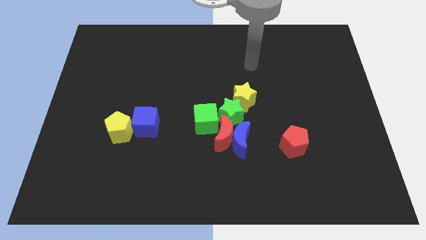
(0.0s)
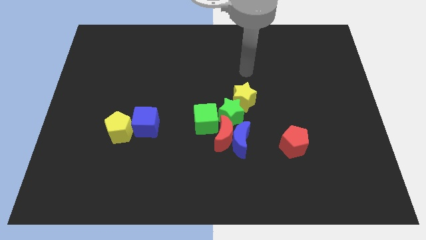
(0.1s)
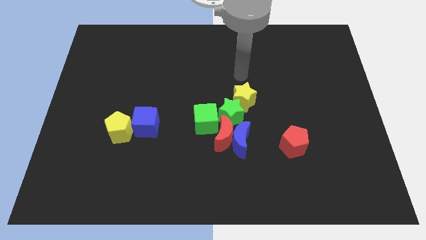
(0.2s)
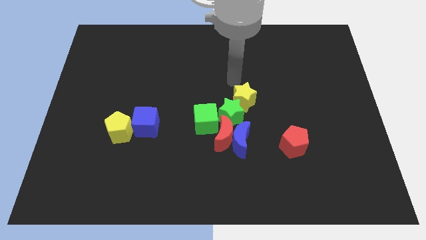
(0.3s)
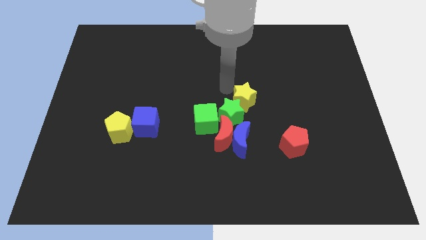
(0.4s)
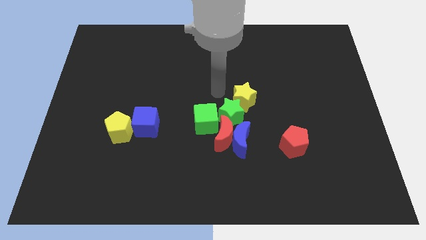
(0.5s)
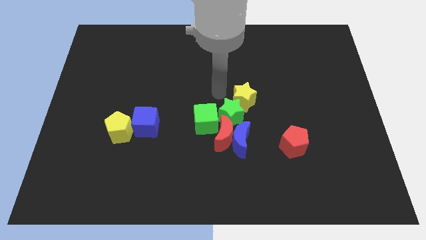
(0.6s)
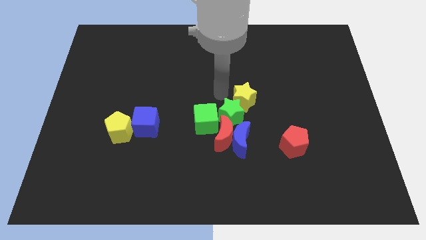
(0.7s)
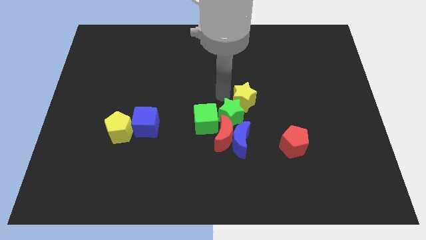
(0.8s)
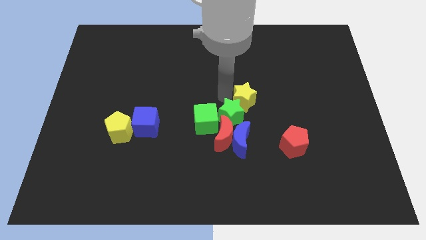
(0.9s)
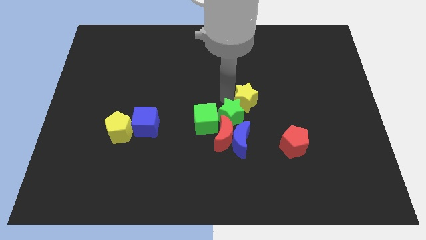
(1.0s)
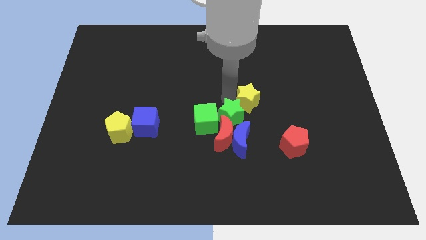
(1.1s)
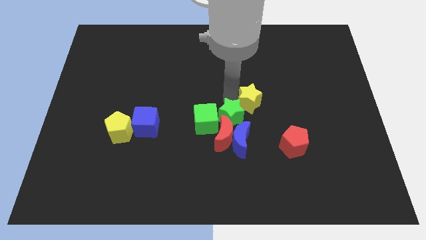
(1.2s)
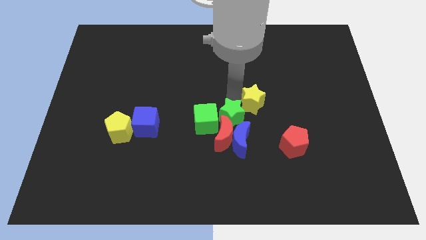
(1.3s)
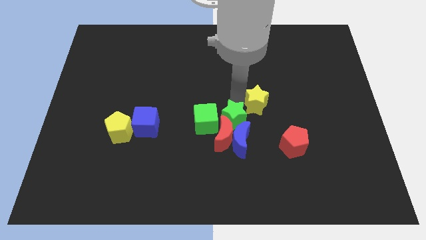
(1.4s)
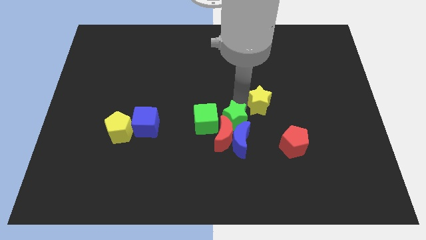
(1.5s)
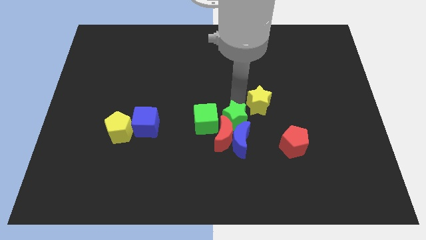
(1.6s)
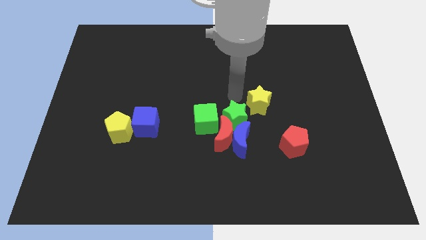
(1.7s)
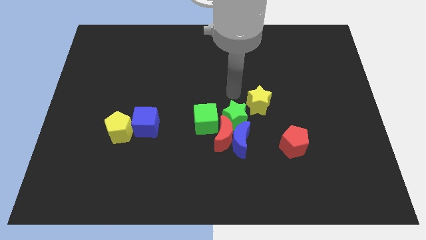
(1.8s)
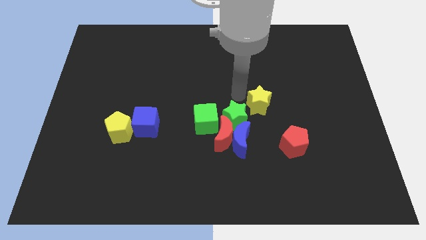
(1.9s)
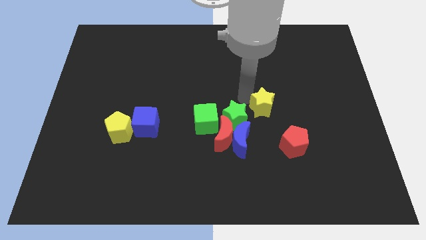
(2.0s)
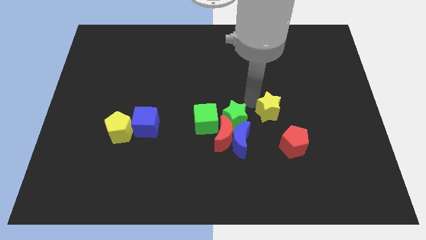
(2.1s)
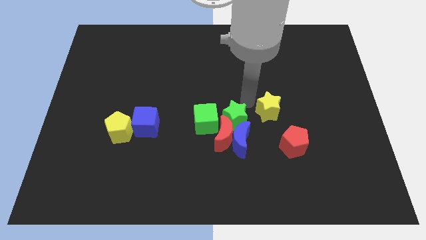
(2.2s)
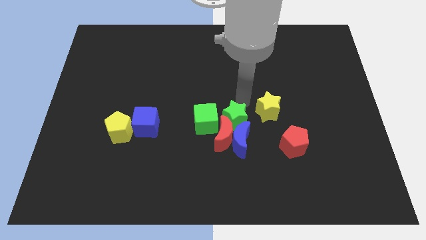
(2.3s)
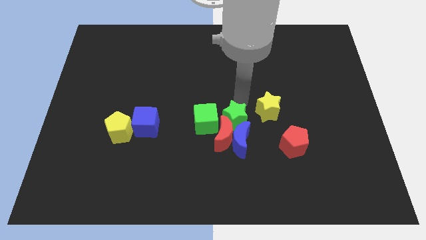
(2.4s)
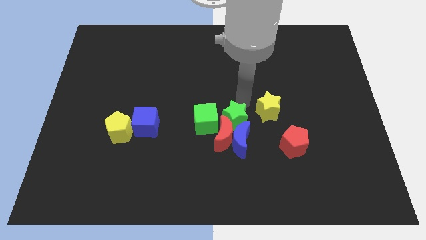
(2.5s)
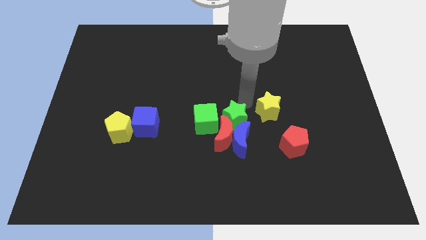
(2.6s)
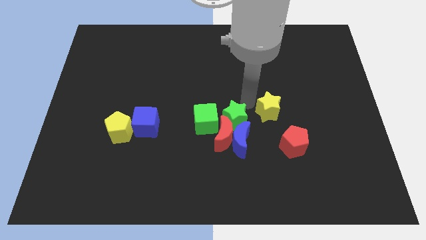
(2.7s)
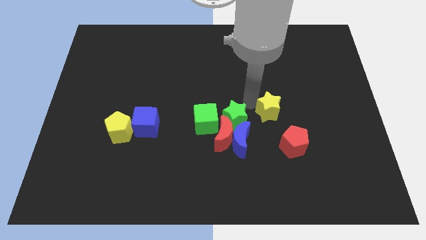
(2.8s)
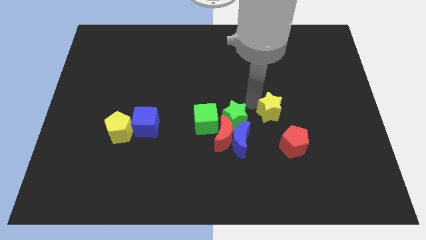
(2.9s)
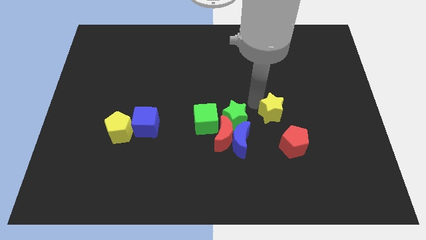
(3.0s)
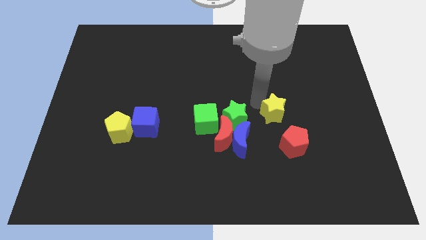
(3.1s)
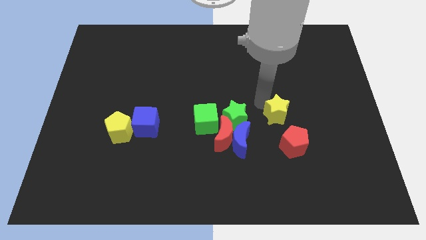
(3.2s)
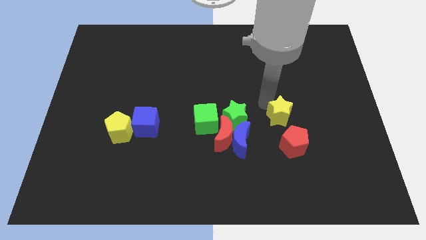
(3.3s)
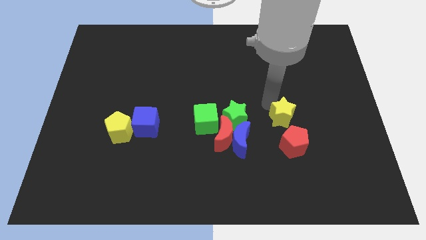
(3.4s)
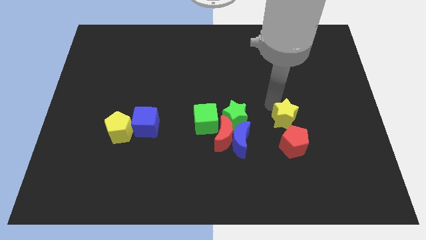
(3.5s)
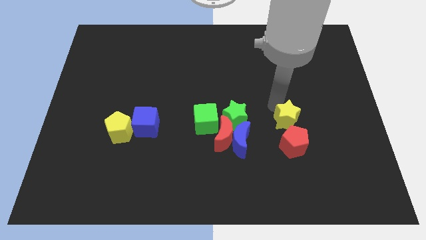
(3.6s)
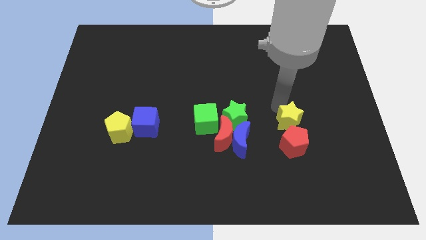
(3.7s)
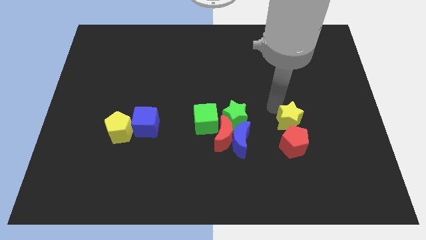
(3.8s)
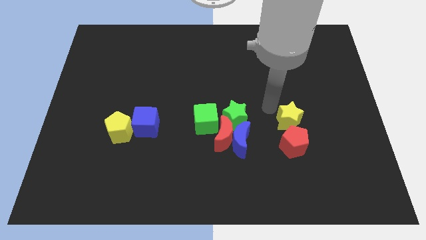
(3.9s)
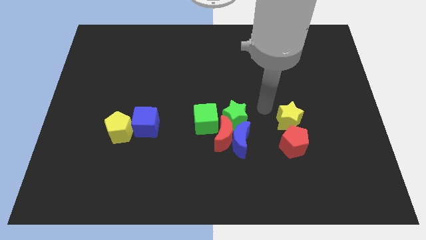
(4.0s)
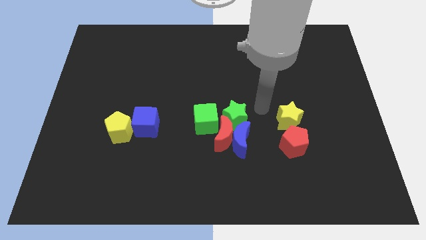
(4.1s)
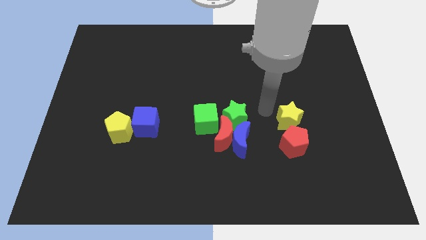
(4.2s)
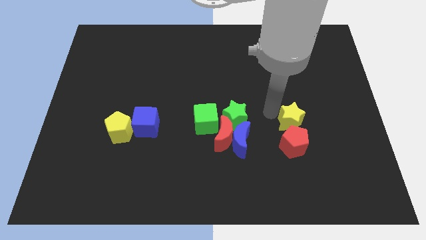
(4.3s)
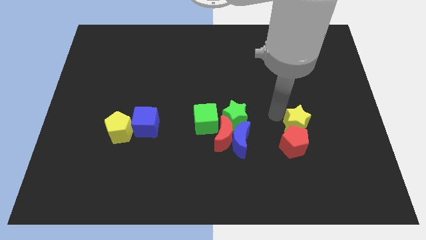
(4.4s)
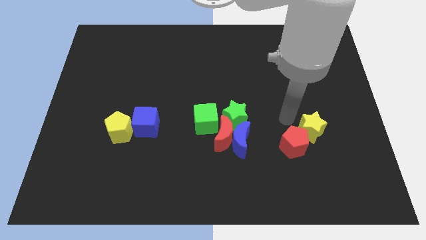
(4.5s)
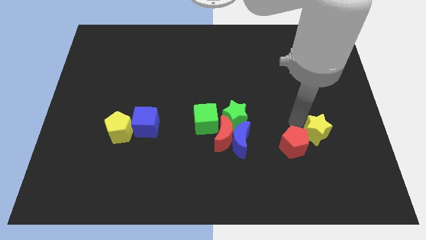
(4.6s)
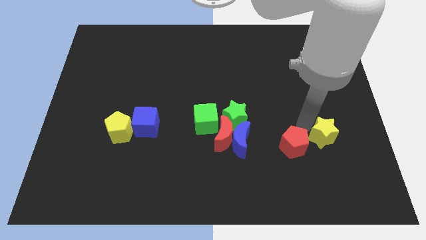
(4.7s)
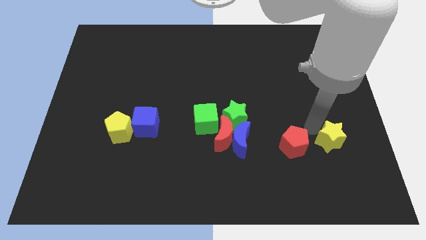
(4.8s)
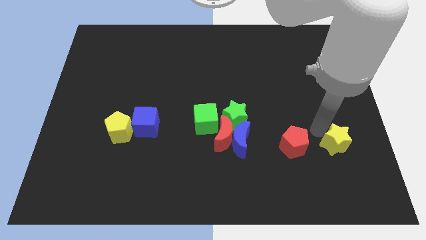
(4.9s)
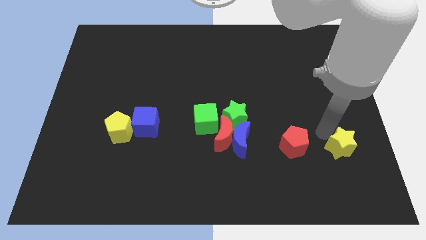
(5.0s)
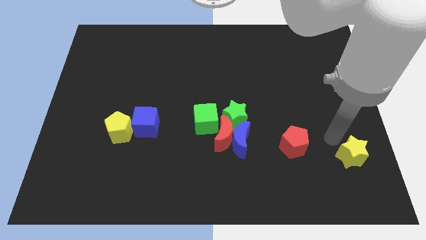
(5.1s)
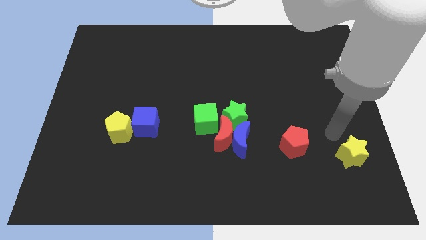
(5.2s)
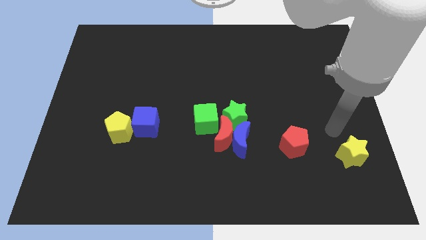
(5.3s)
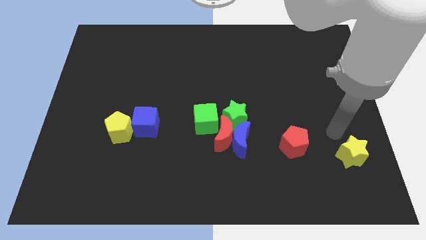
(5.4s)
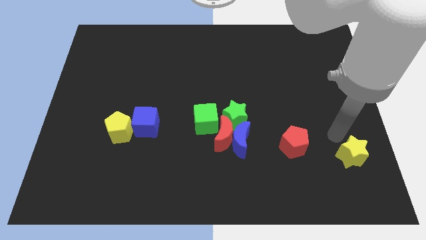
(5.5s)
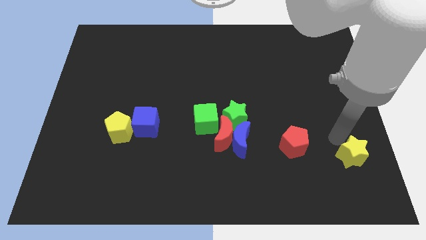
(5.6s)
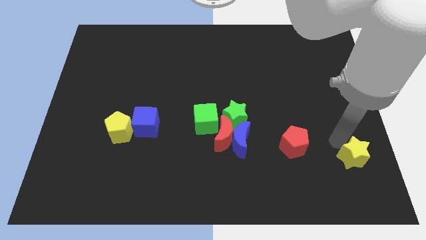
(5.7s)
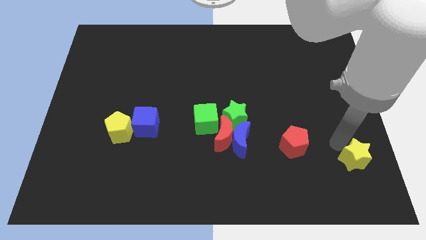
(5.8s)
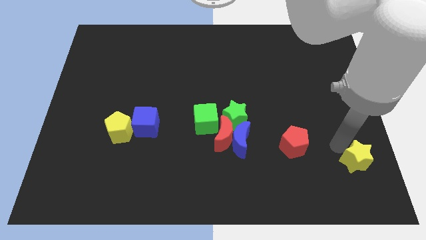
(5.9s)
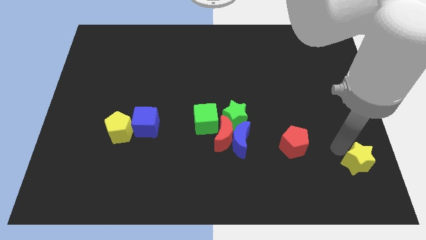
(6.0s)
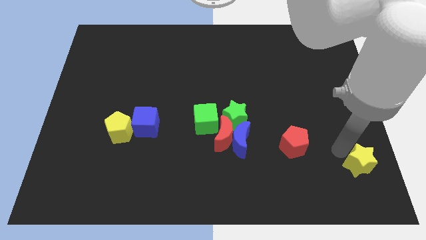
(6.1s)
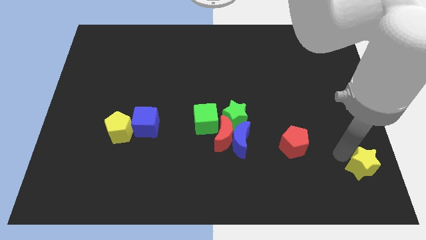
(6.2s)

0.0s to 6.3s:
put the yellow star to the bottom right of the board

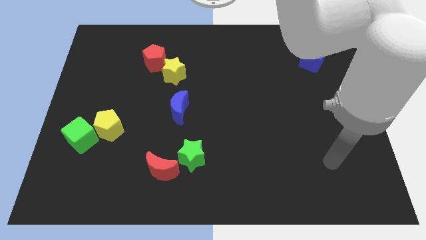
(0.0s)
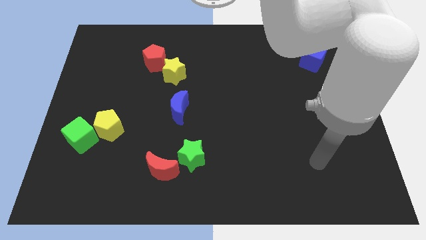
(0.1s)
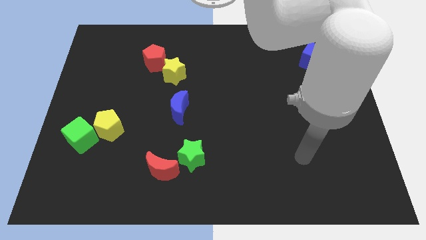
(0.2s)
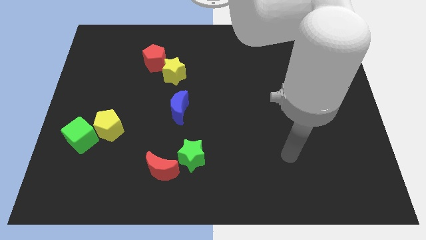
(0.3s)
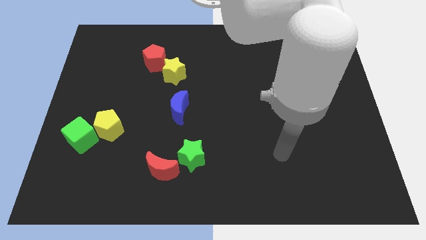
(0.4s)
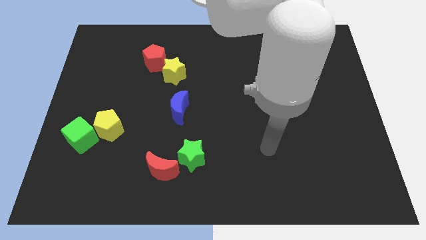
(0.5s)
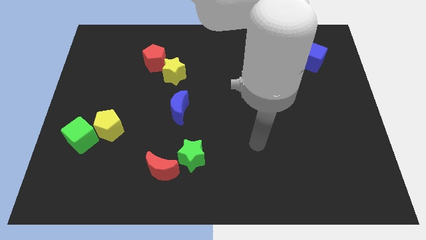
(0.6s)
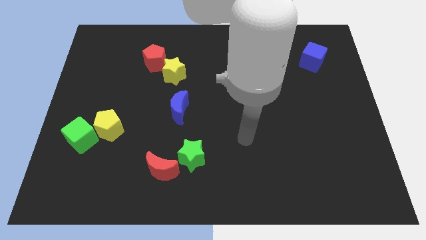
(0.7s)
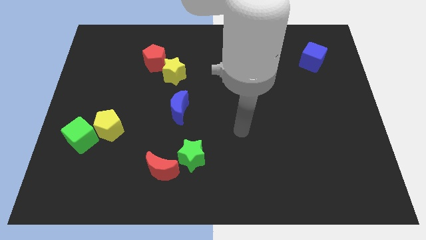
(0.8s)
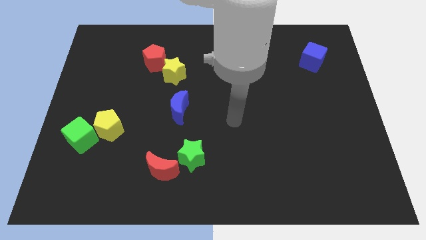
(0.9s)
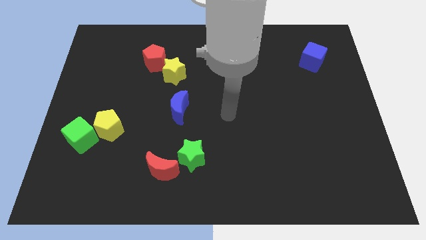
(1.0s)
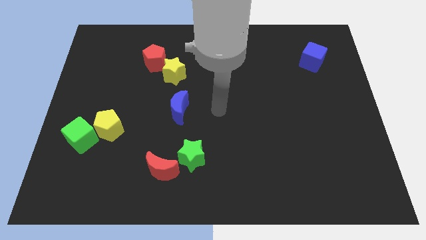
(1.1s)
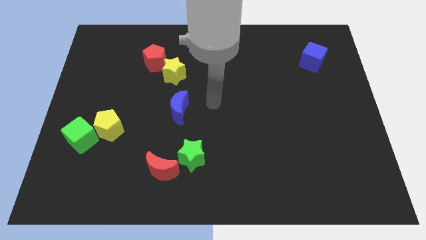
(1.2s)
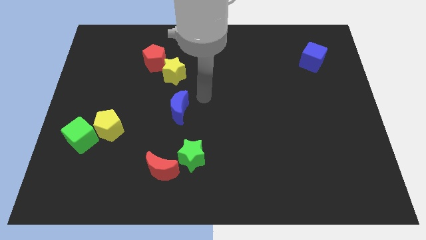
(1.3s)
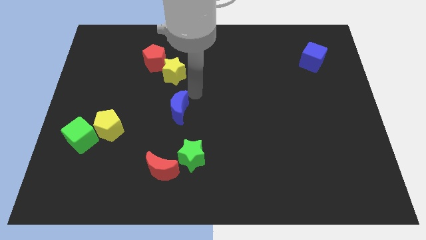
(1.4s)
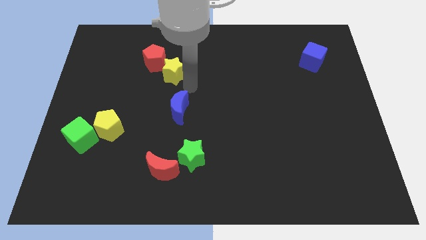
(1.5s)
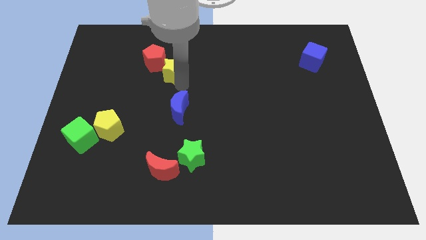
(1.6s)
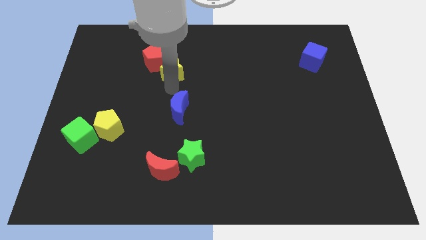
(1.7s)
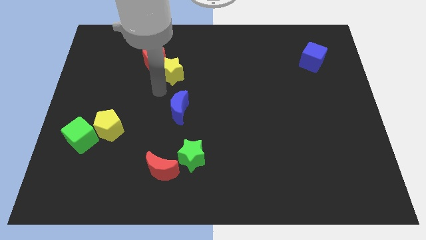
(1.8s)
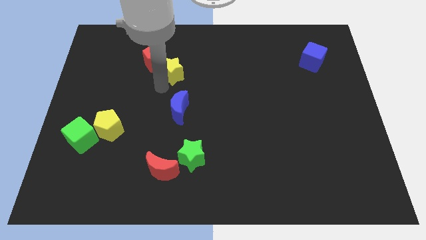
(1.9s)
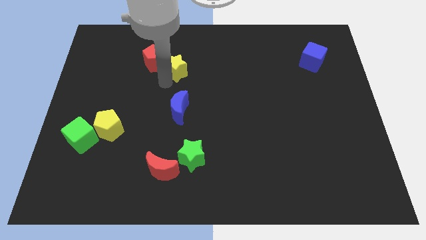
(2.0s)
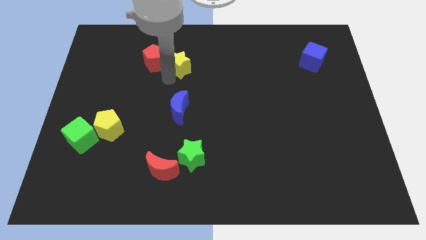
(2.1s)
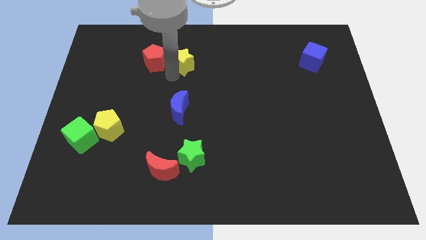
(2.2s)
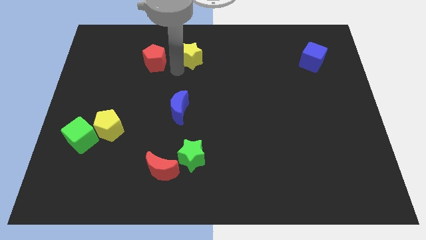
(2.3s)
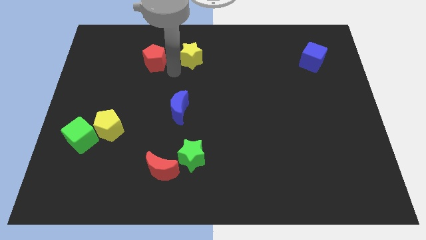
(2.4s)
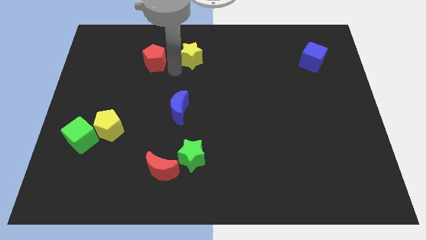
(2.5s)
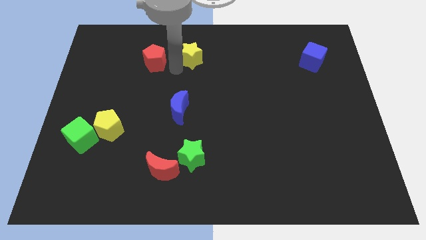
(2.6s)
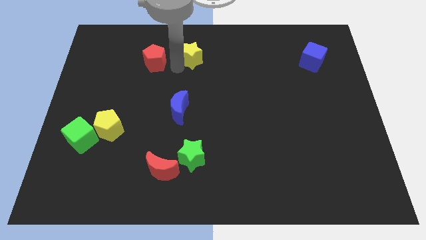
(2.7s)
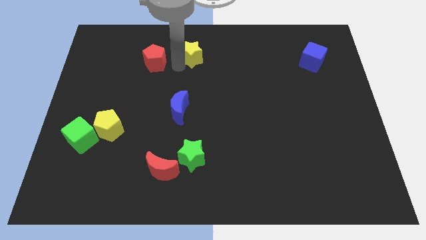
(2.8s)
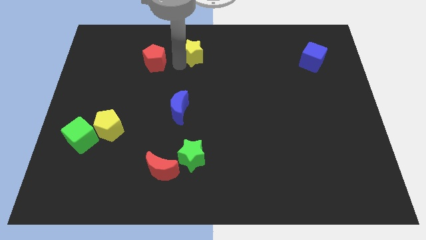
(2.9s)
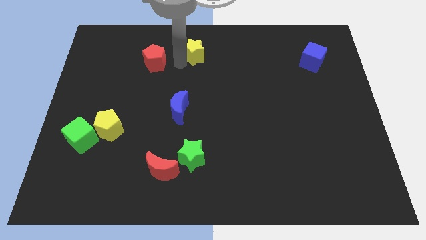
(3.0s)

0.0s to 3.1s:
move the yellow star to the towards your base
